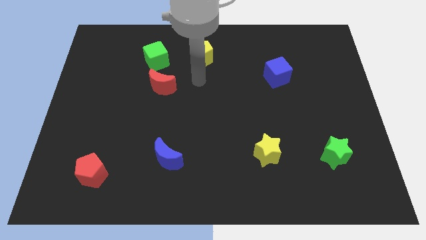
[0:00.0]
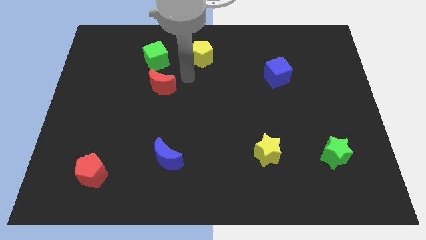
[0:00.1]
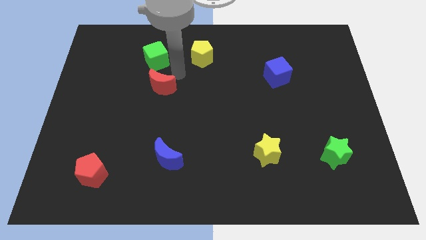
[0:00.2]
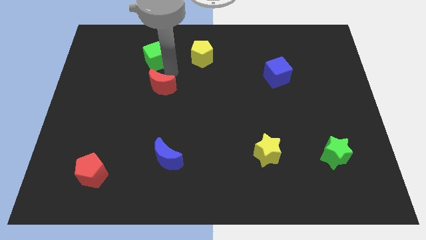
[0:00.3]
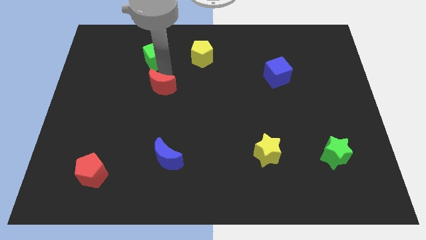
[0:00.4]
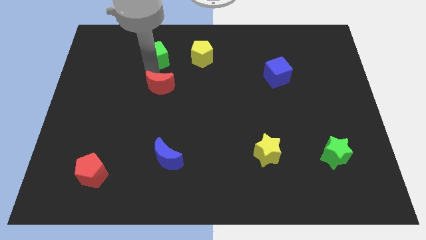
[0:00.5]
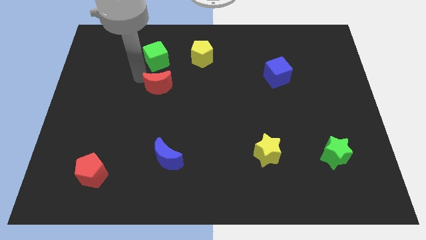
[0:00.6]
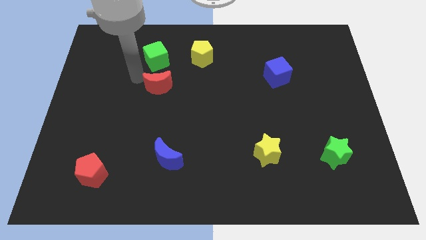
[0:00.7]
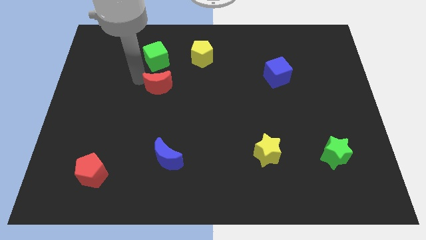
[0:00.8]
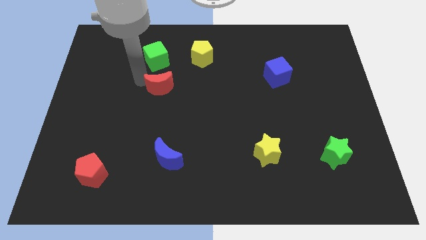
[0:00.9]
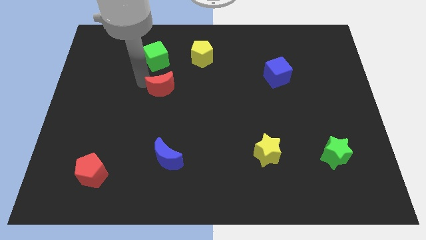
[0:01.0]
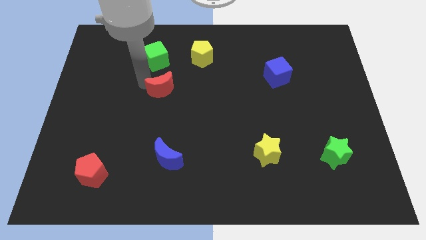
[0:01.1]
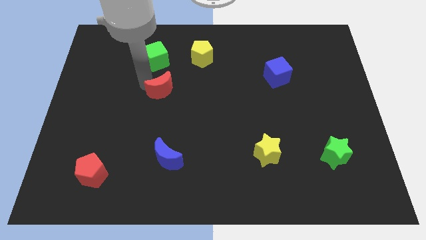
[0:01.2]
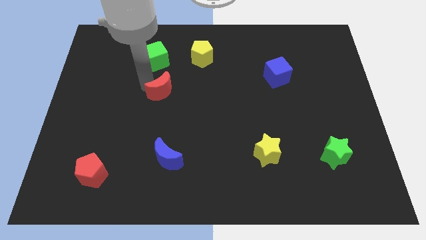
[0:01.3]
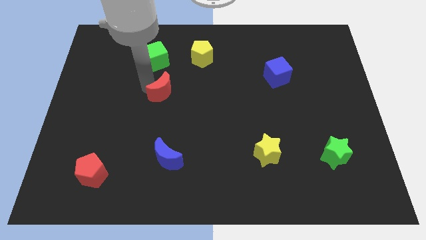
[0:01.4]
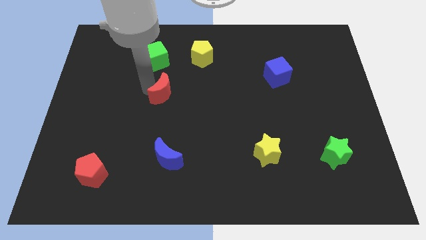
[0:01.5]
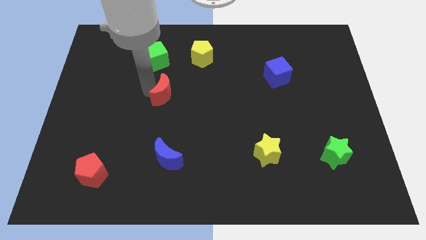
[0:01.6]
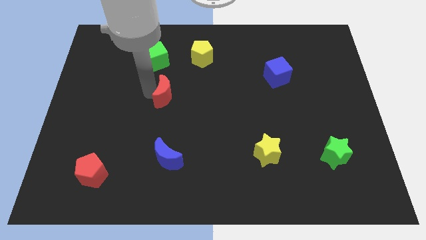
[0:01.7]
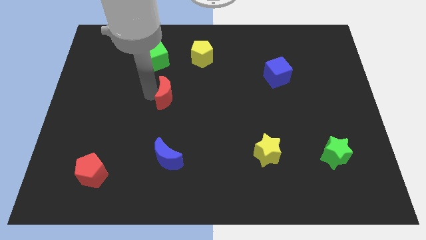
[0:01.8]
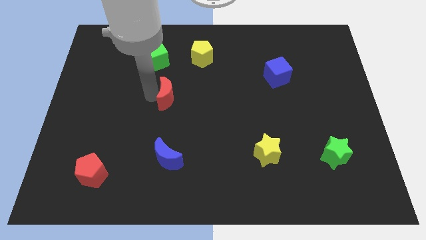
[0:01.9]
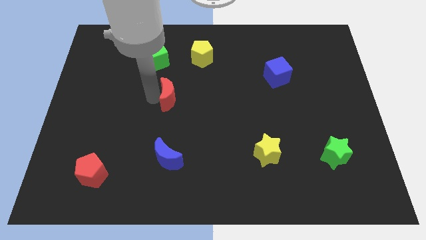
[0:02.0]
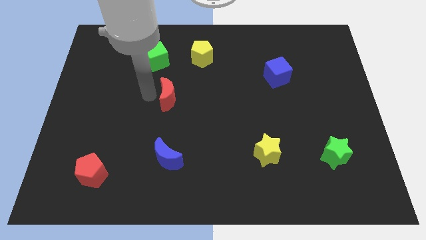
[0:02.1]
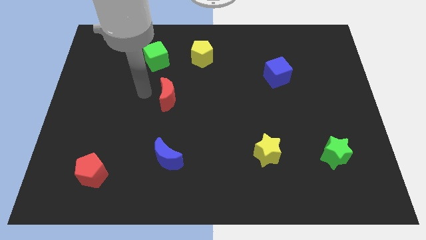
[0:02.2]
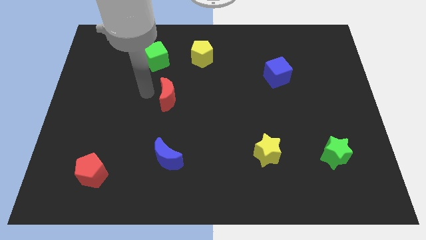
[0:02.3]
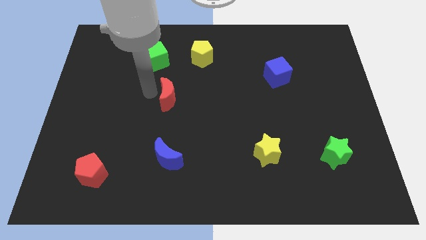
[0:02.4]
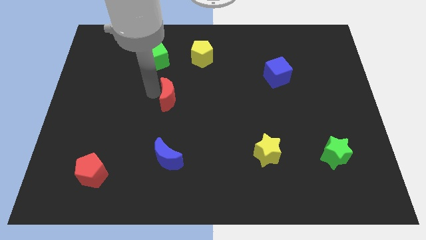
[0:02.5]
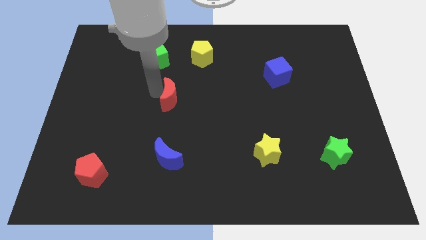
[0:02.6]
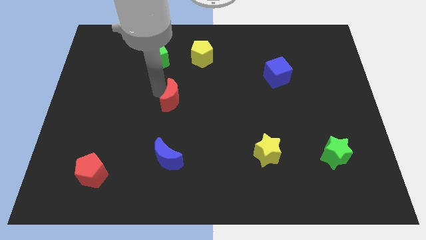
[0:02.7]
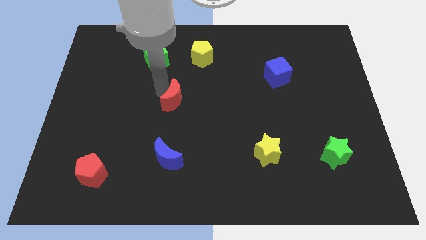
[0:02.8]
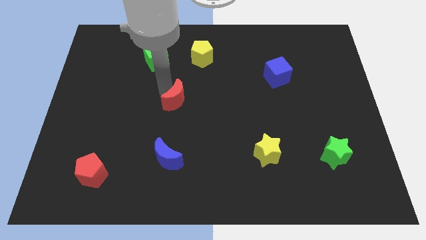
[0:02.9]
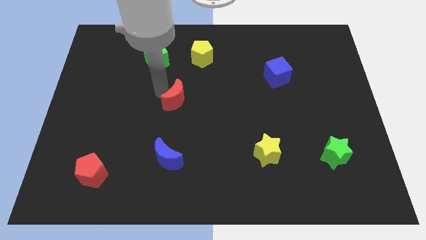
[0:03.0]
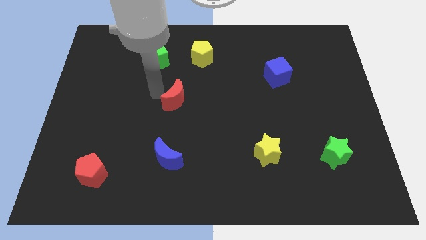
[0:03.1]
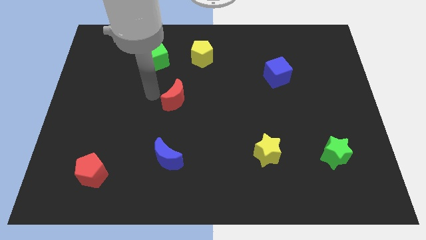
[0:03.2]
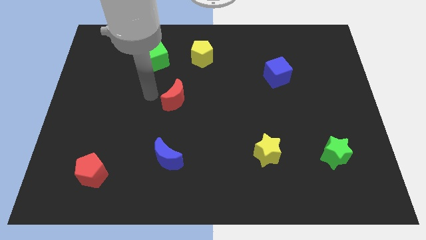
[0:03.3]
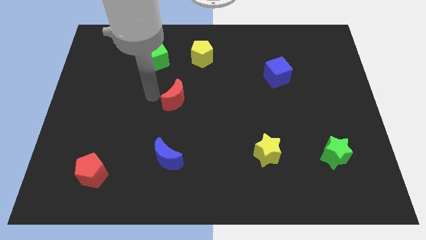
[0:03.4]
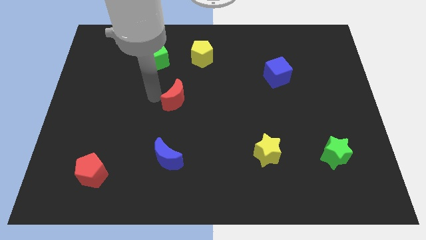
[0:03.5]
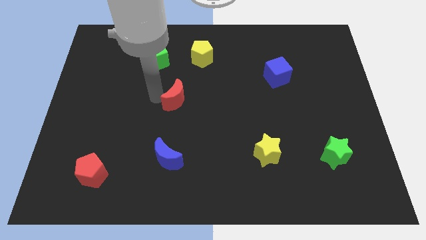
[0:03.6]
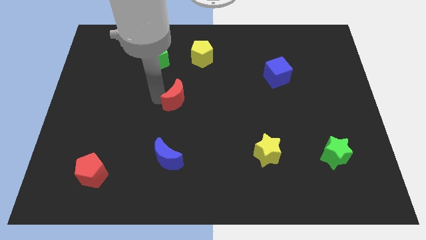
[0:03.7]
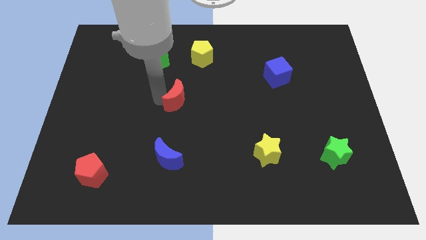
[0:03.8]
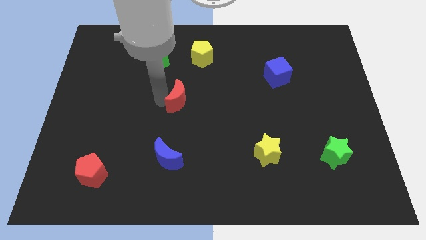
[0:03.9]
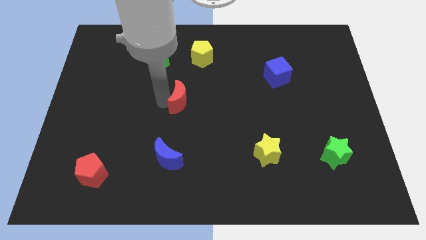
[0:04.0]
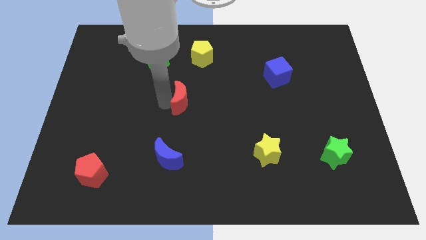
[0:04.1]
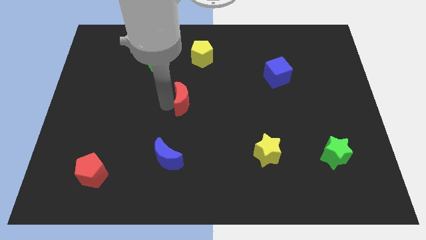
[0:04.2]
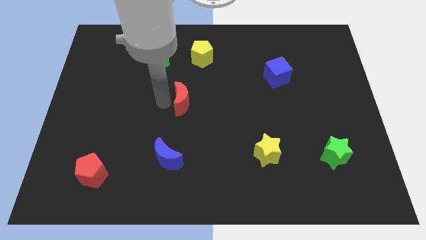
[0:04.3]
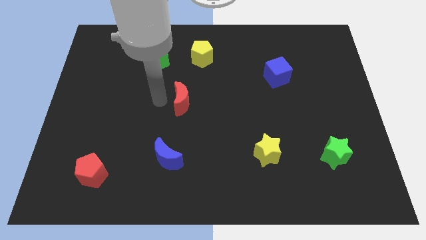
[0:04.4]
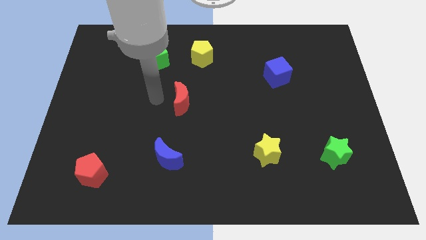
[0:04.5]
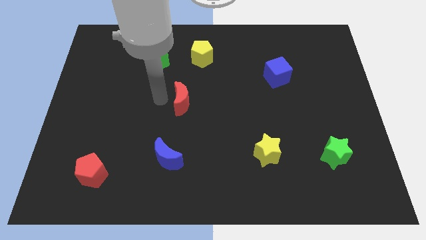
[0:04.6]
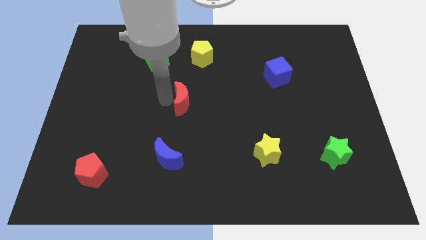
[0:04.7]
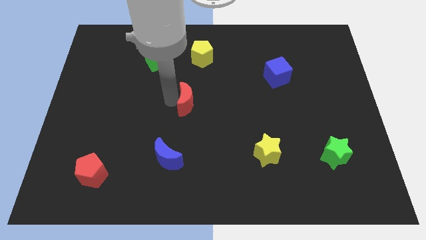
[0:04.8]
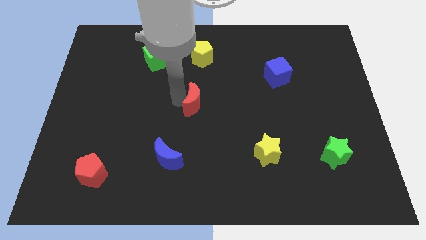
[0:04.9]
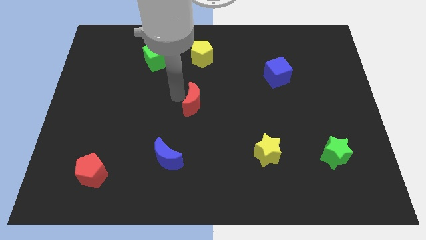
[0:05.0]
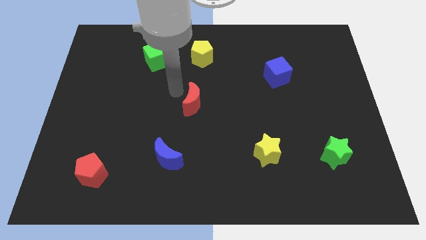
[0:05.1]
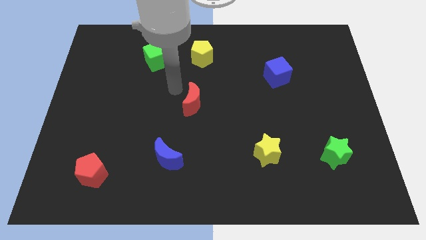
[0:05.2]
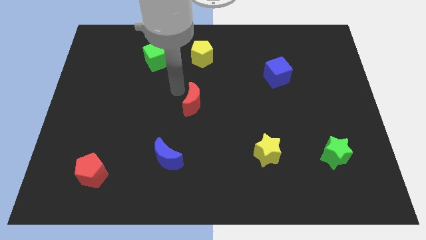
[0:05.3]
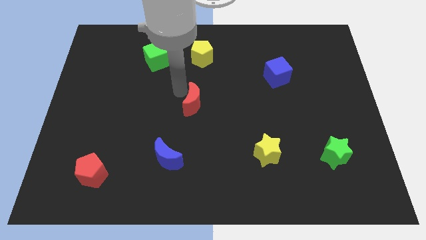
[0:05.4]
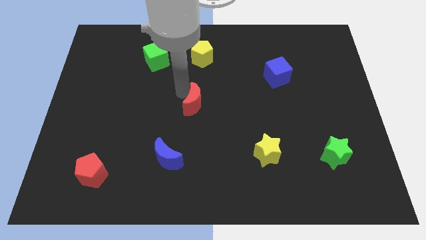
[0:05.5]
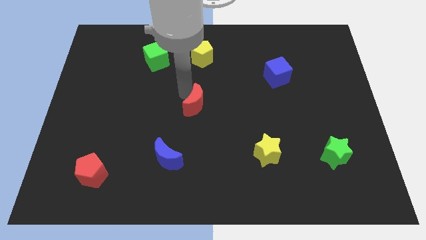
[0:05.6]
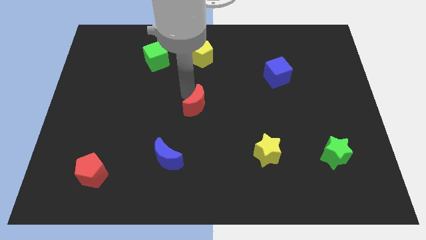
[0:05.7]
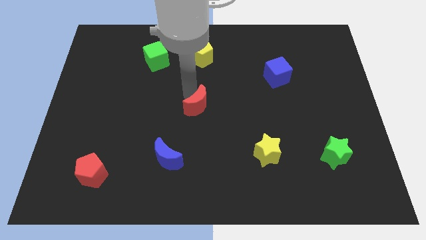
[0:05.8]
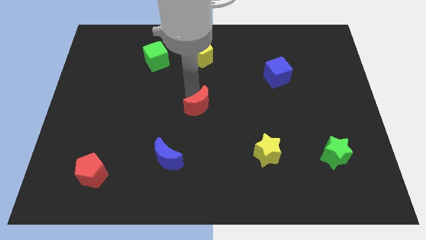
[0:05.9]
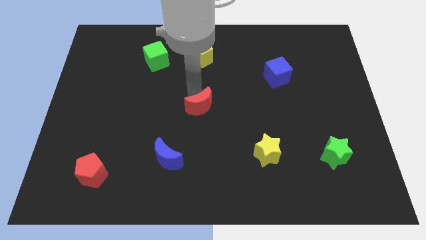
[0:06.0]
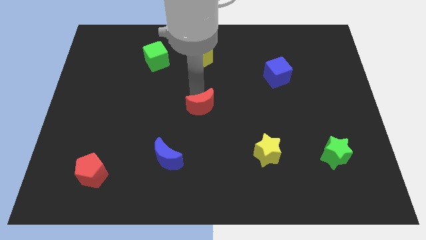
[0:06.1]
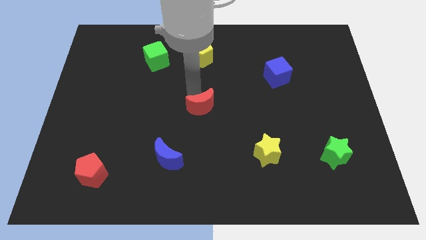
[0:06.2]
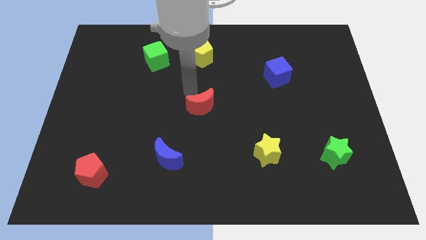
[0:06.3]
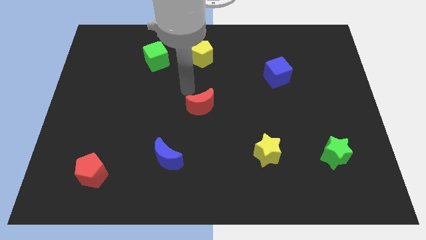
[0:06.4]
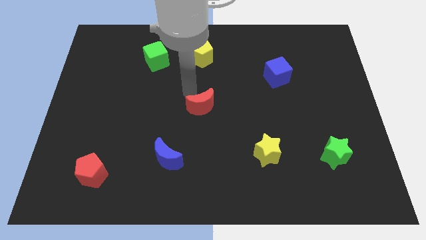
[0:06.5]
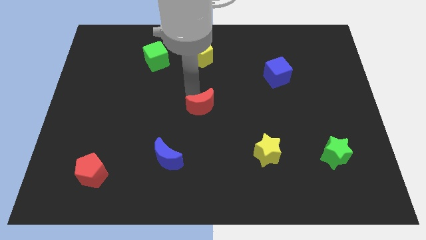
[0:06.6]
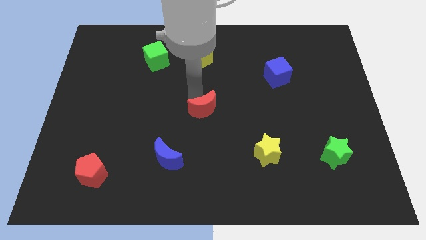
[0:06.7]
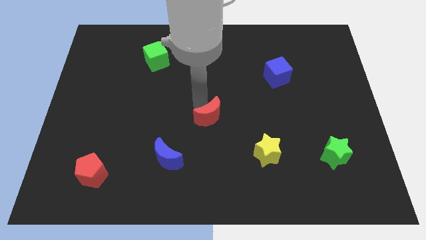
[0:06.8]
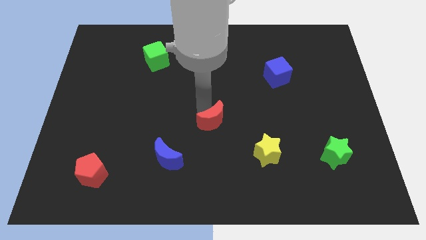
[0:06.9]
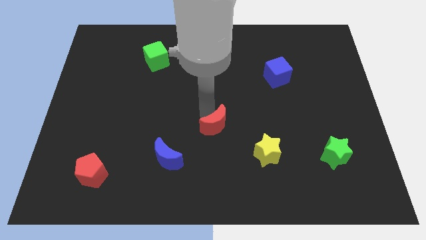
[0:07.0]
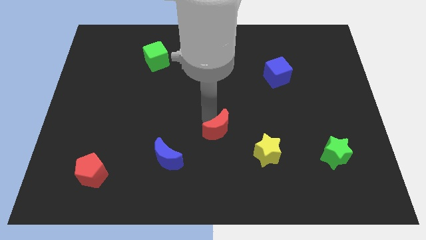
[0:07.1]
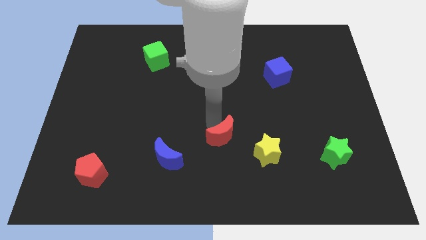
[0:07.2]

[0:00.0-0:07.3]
move the red moon diagonally downwards and right

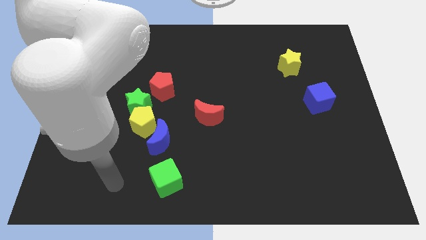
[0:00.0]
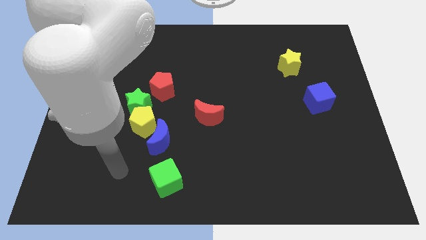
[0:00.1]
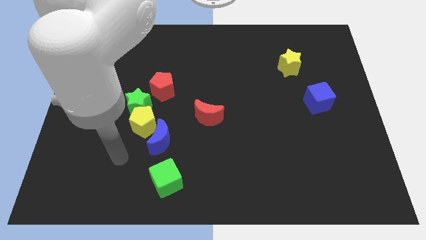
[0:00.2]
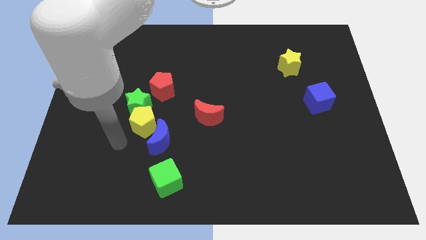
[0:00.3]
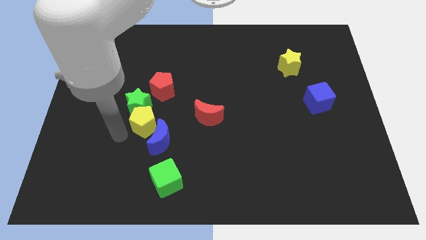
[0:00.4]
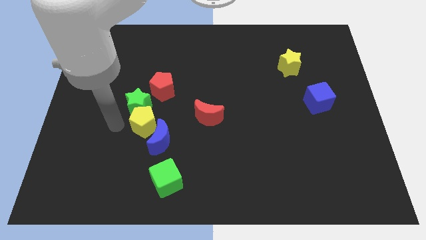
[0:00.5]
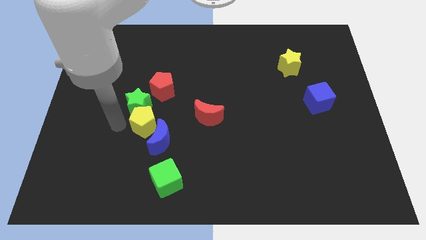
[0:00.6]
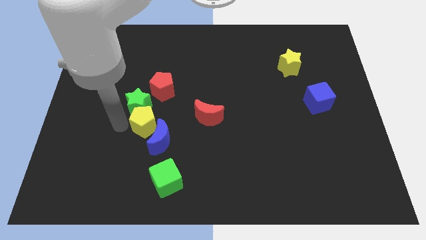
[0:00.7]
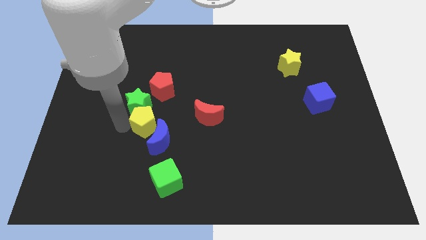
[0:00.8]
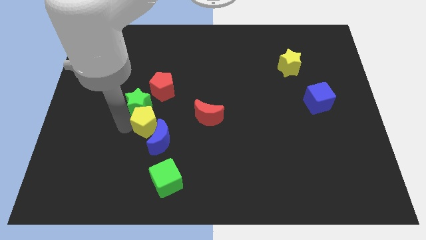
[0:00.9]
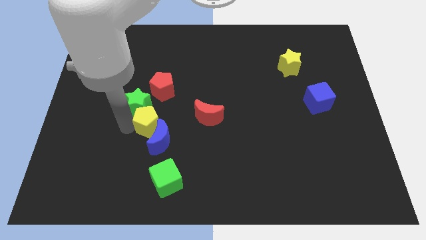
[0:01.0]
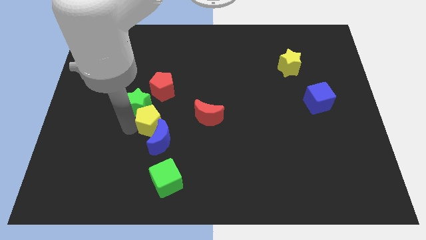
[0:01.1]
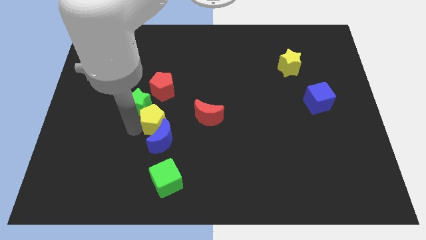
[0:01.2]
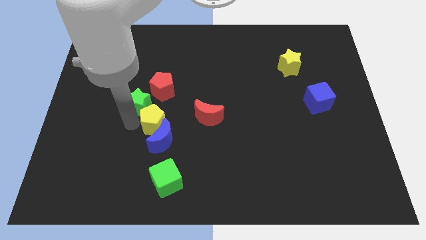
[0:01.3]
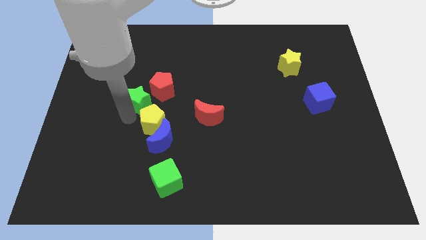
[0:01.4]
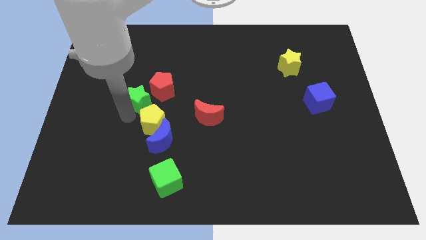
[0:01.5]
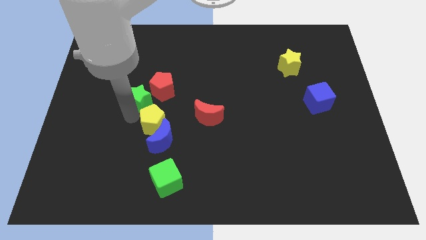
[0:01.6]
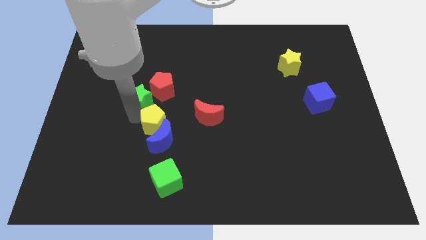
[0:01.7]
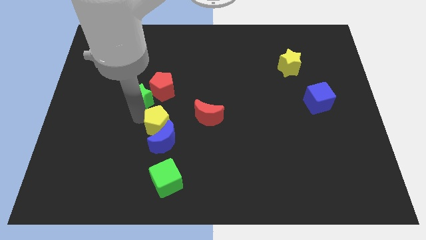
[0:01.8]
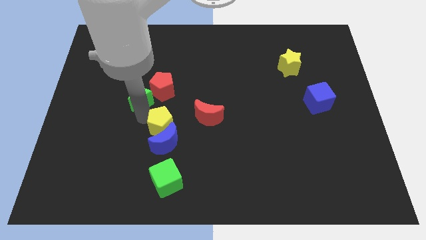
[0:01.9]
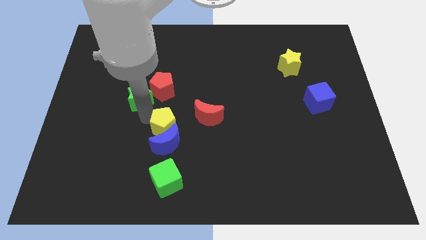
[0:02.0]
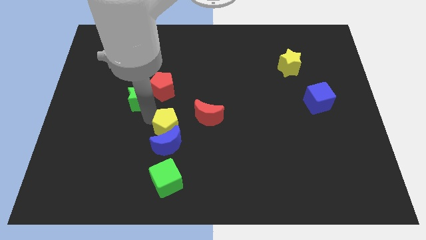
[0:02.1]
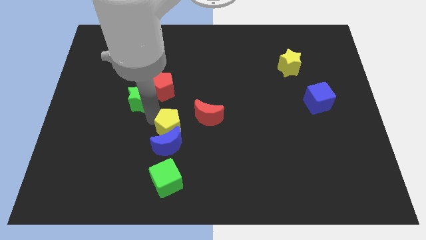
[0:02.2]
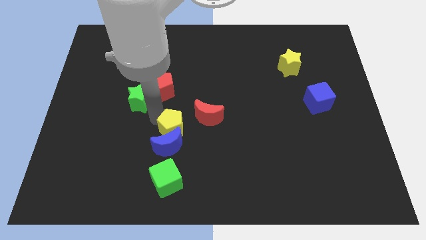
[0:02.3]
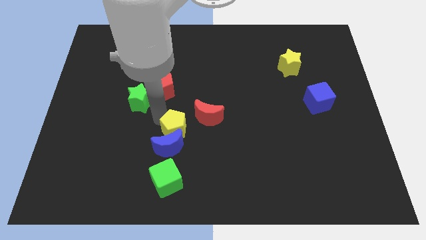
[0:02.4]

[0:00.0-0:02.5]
slide the yellow pentagon to the right a little bit
